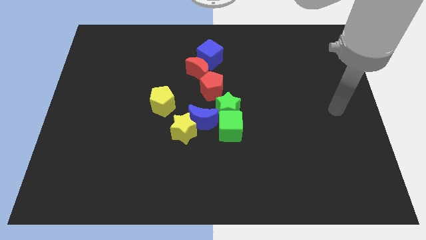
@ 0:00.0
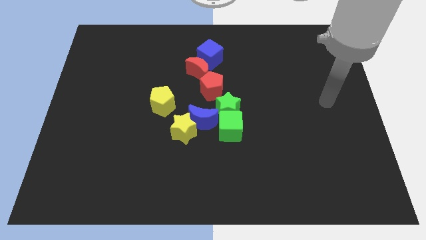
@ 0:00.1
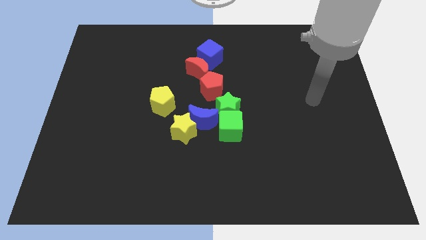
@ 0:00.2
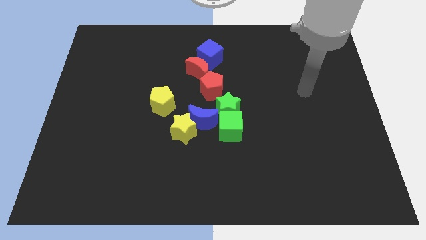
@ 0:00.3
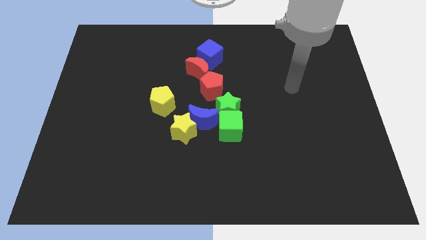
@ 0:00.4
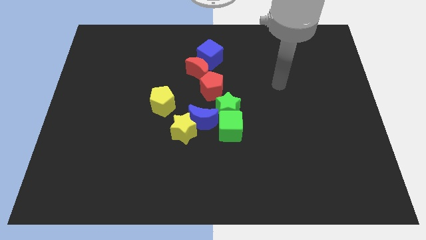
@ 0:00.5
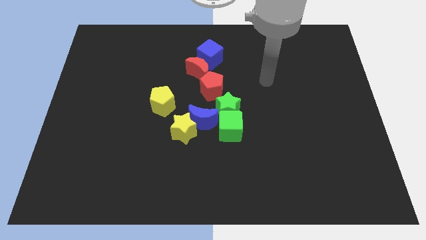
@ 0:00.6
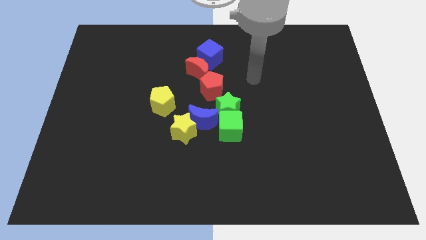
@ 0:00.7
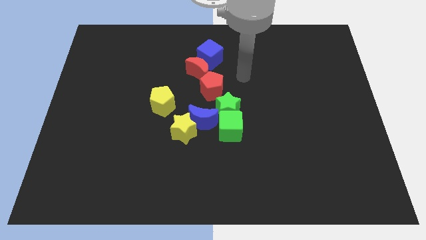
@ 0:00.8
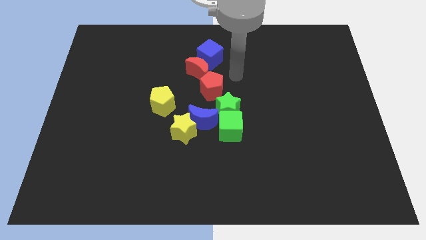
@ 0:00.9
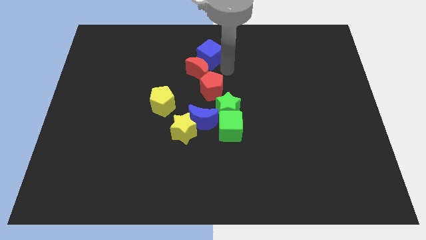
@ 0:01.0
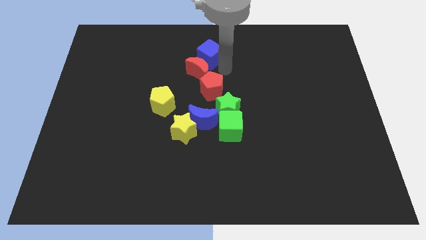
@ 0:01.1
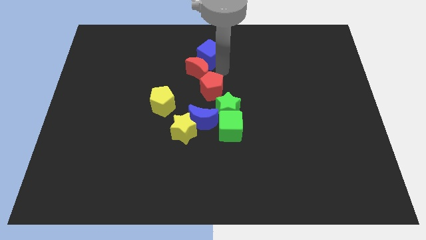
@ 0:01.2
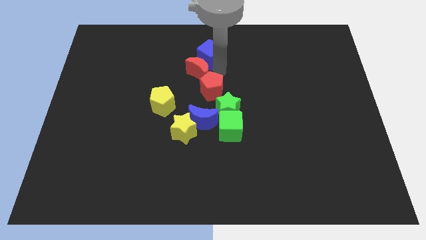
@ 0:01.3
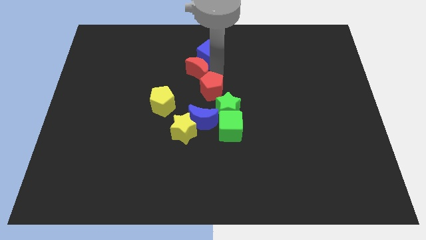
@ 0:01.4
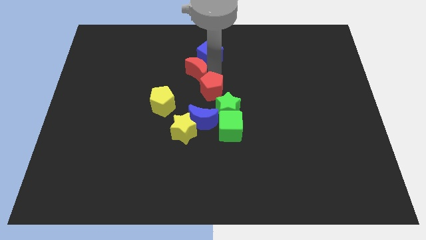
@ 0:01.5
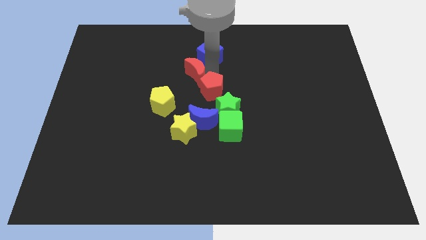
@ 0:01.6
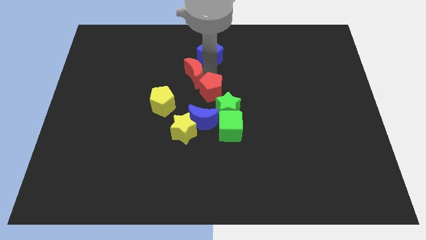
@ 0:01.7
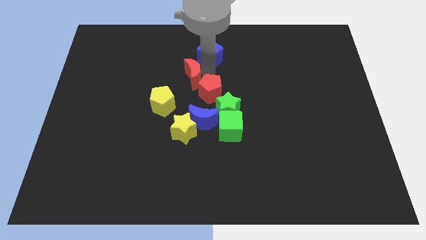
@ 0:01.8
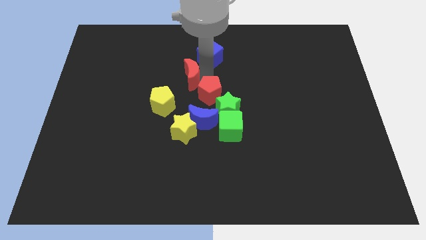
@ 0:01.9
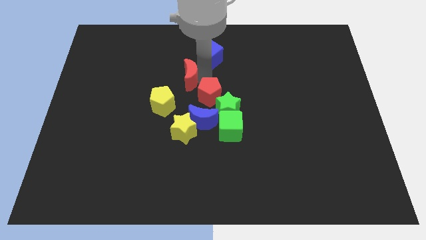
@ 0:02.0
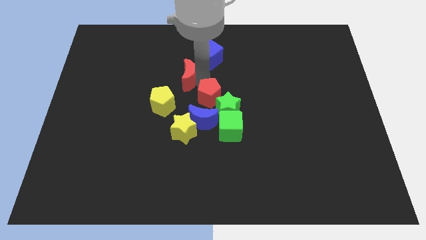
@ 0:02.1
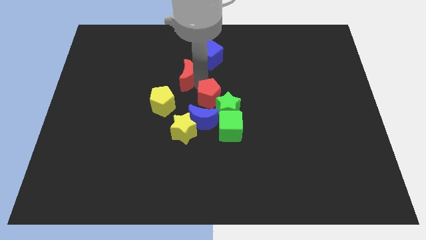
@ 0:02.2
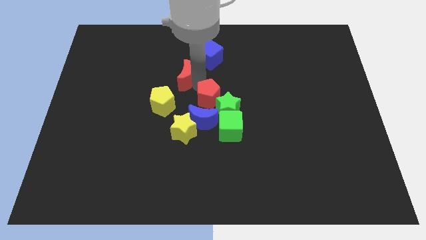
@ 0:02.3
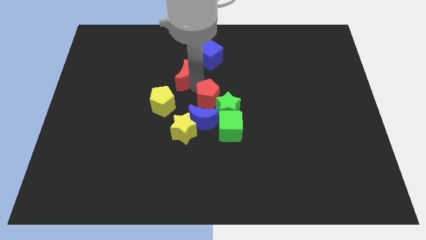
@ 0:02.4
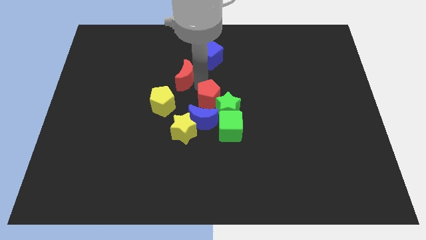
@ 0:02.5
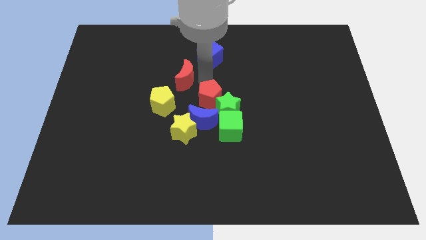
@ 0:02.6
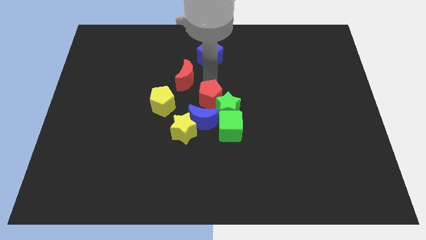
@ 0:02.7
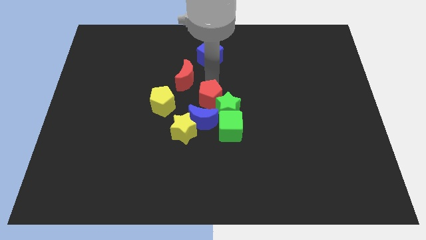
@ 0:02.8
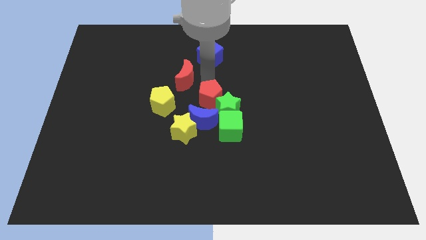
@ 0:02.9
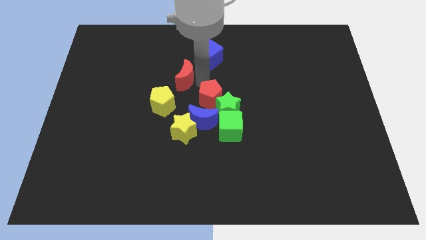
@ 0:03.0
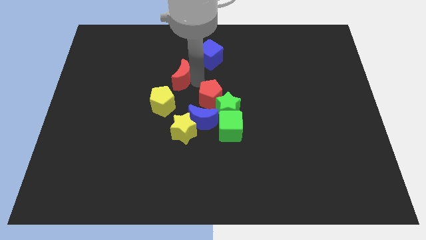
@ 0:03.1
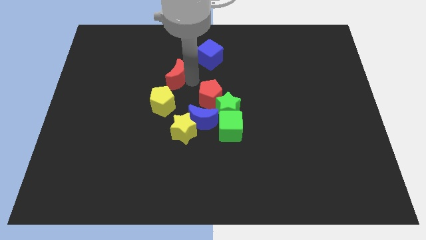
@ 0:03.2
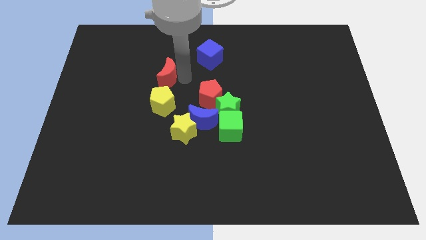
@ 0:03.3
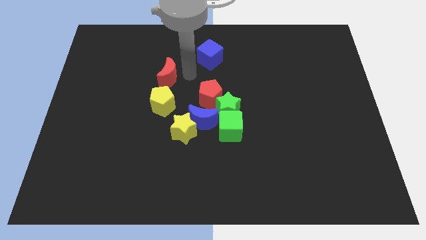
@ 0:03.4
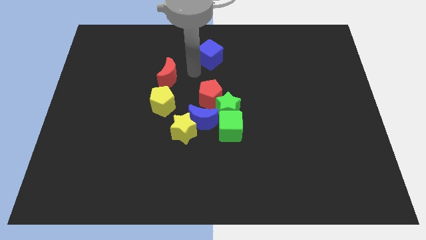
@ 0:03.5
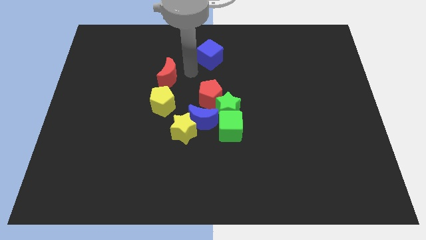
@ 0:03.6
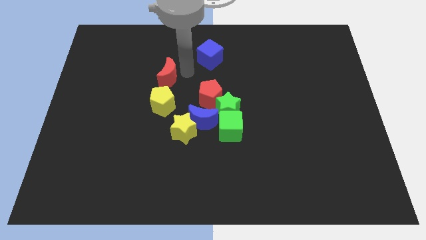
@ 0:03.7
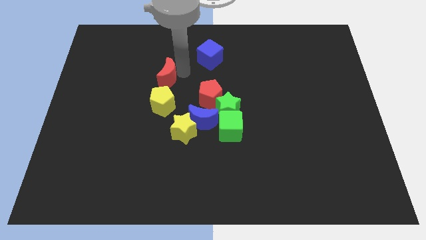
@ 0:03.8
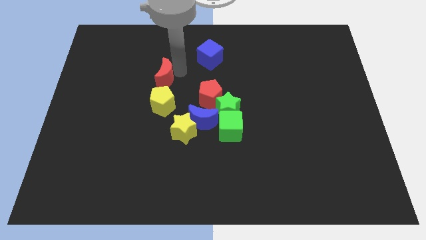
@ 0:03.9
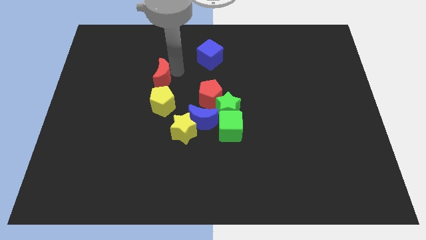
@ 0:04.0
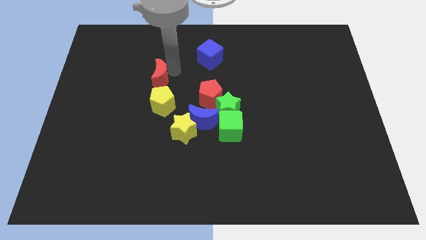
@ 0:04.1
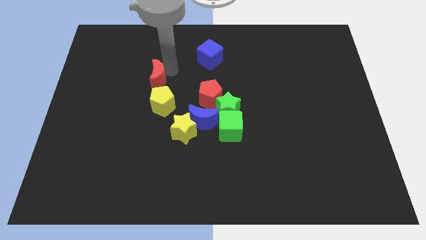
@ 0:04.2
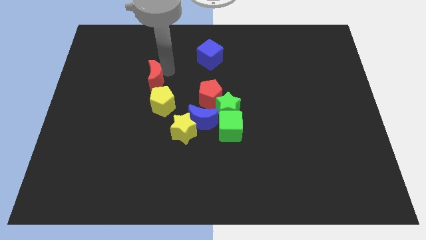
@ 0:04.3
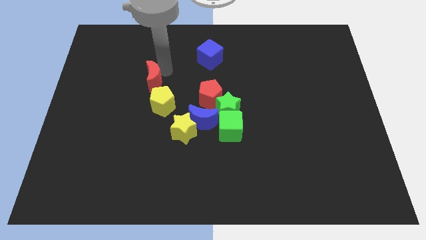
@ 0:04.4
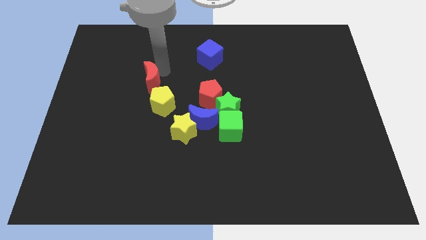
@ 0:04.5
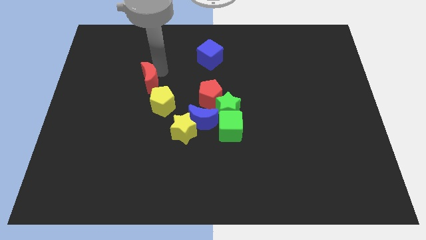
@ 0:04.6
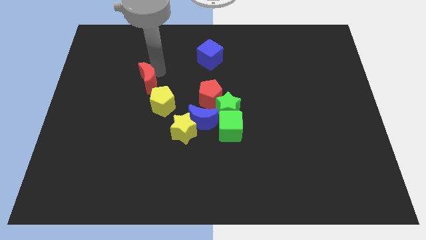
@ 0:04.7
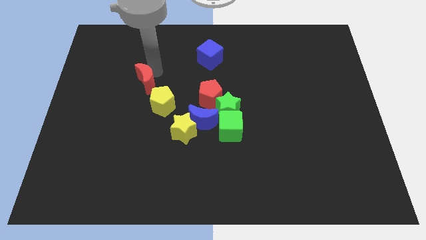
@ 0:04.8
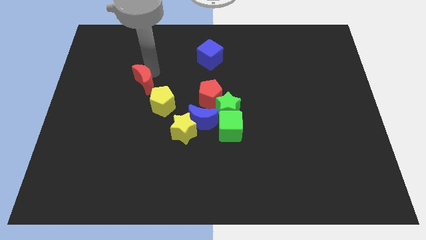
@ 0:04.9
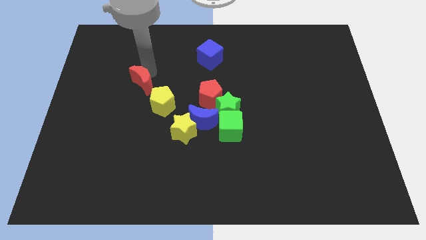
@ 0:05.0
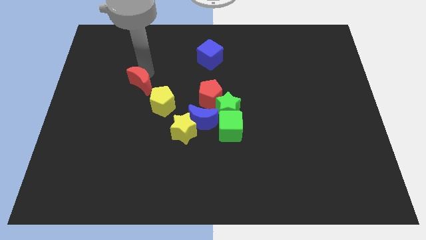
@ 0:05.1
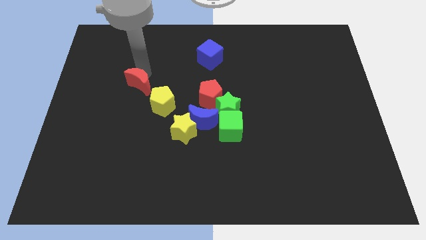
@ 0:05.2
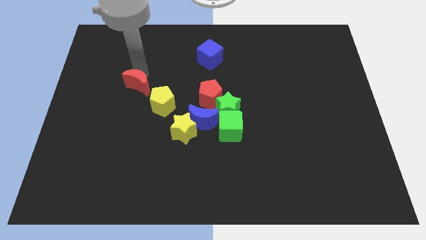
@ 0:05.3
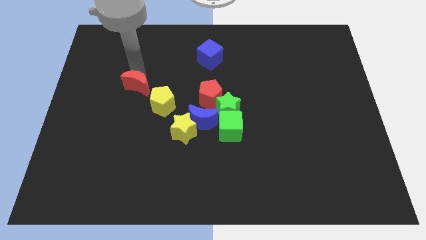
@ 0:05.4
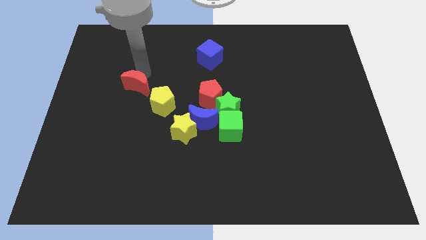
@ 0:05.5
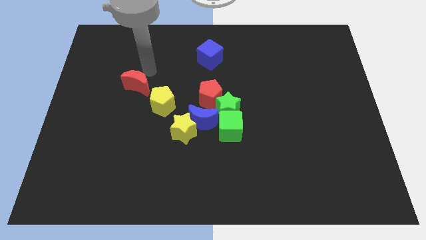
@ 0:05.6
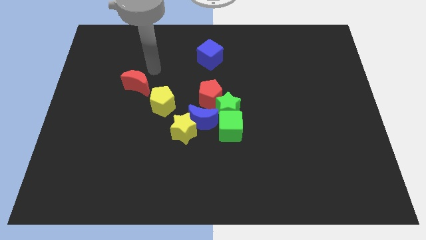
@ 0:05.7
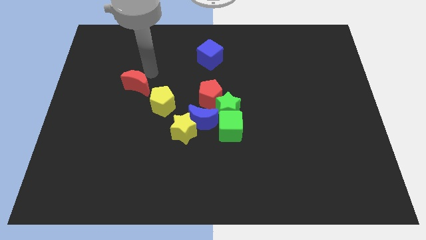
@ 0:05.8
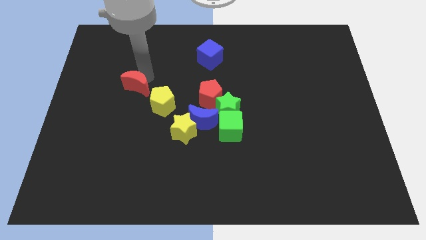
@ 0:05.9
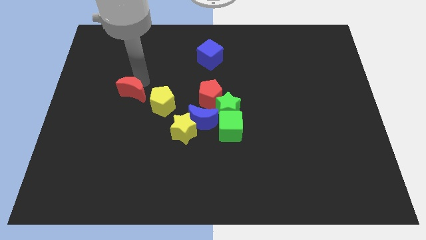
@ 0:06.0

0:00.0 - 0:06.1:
put the red moon left of the yellow pentagon

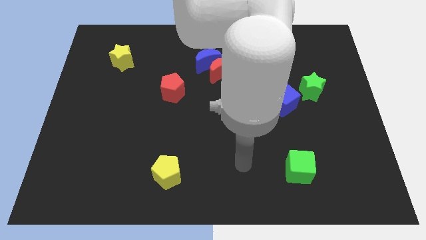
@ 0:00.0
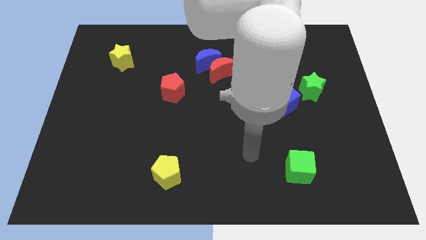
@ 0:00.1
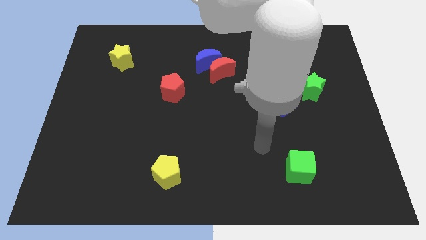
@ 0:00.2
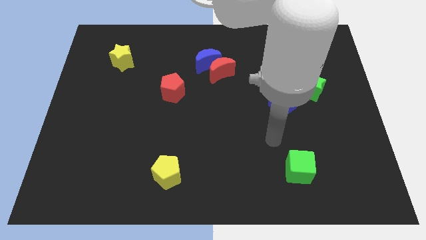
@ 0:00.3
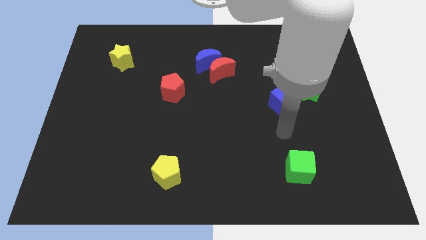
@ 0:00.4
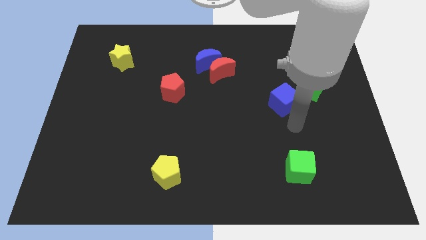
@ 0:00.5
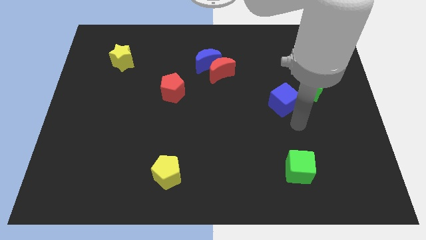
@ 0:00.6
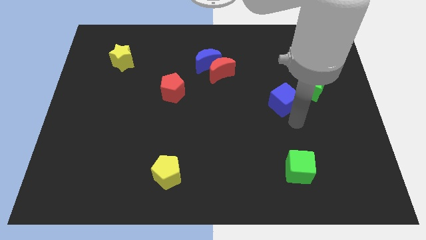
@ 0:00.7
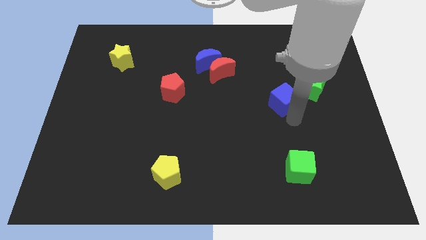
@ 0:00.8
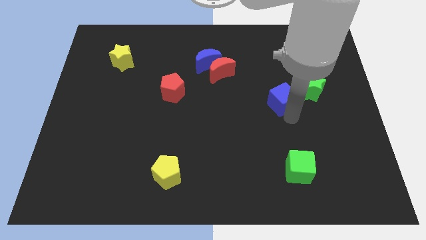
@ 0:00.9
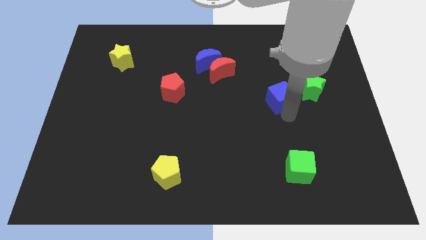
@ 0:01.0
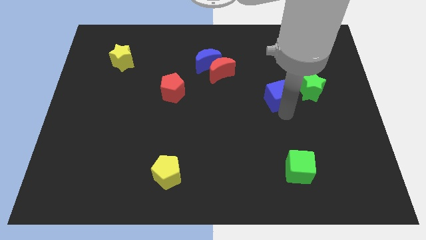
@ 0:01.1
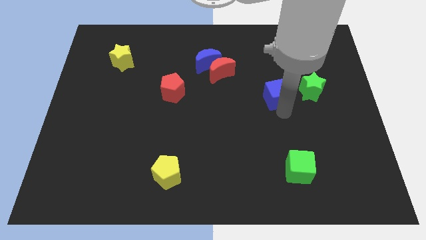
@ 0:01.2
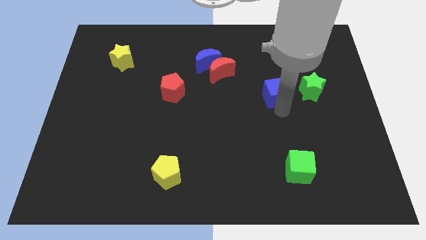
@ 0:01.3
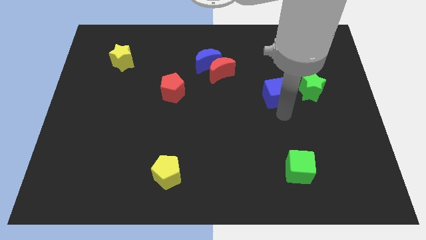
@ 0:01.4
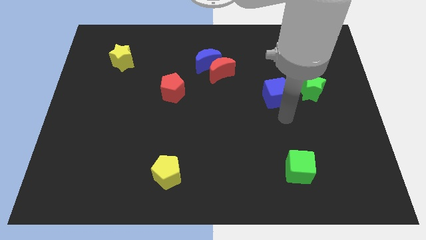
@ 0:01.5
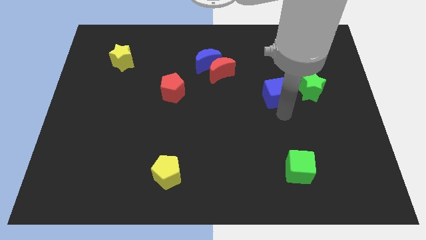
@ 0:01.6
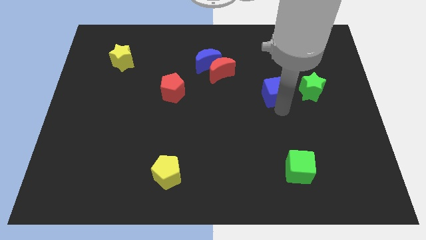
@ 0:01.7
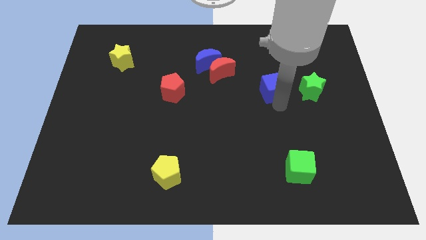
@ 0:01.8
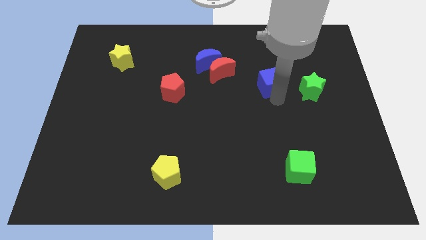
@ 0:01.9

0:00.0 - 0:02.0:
push the blue cube right of the red moon
